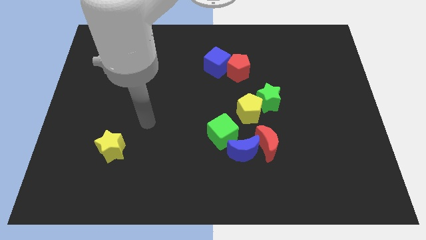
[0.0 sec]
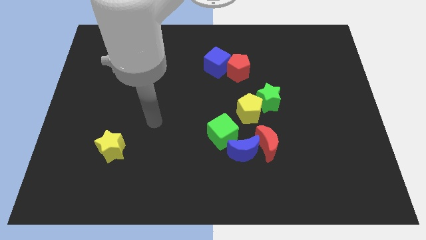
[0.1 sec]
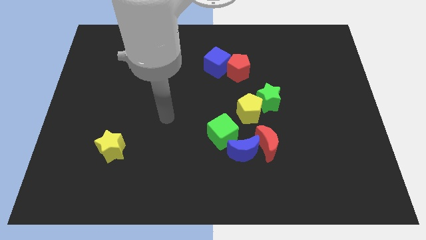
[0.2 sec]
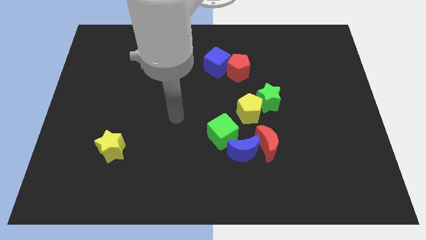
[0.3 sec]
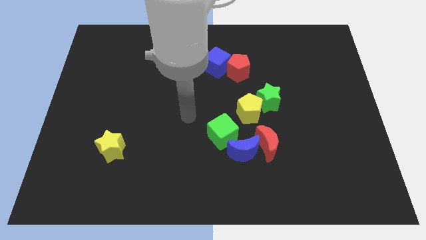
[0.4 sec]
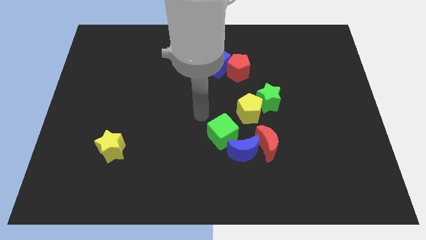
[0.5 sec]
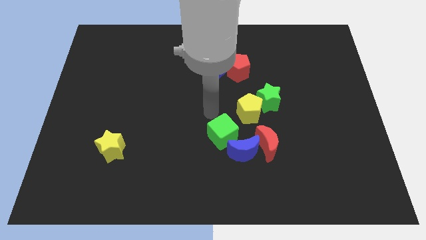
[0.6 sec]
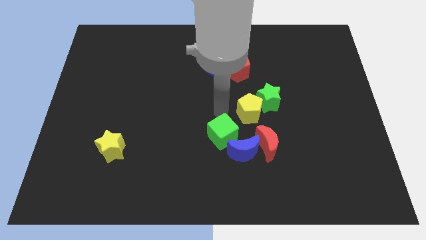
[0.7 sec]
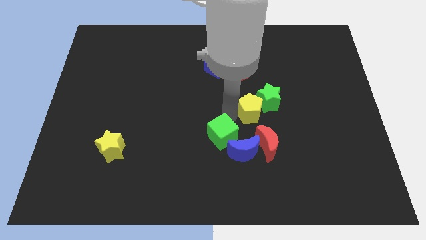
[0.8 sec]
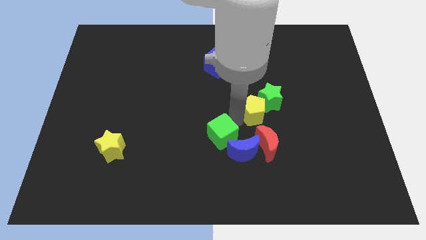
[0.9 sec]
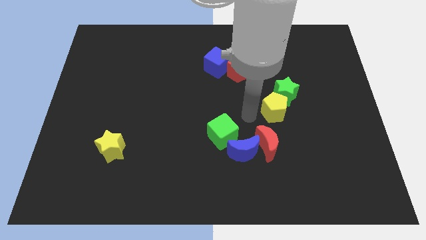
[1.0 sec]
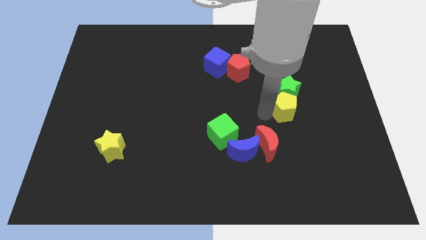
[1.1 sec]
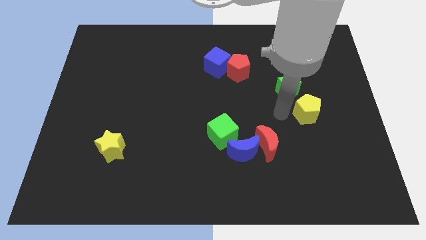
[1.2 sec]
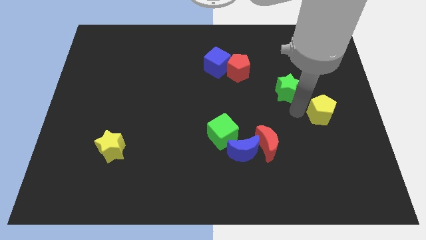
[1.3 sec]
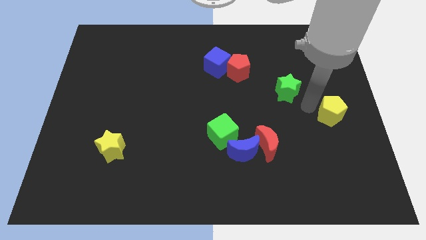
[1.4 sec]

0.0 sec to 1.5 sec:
pull the green star apart from the yellow pentagon

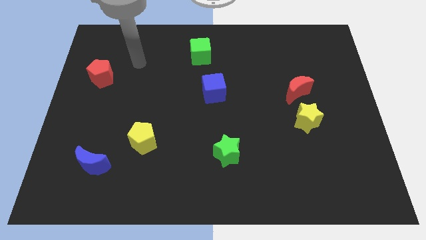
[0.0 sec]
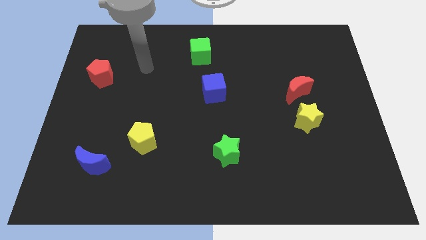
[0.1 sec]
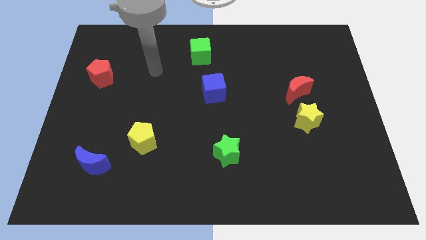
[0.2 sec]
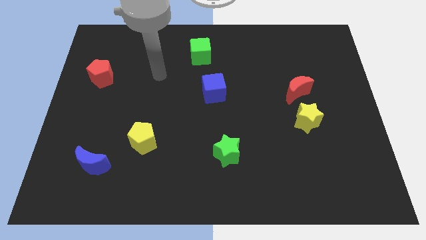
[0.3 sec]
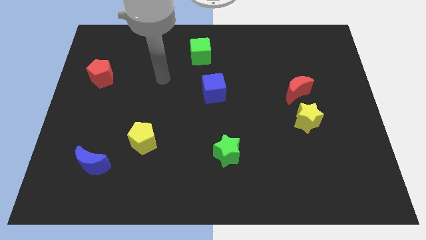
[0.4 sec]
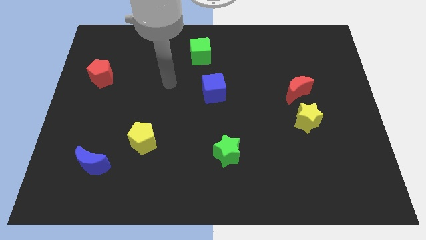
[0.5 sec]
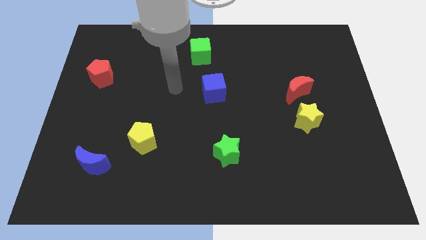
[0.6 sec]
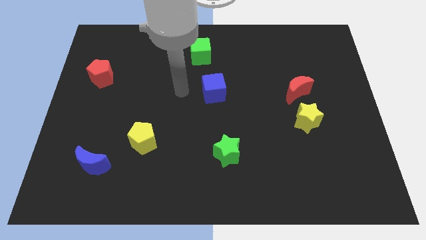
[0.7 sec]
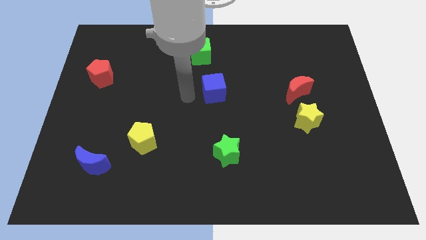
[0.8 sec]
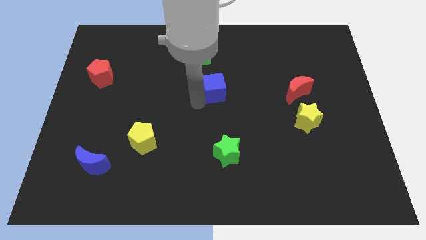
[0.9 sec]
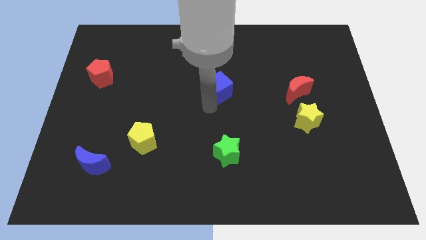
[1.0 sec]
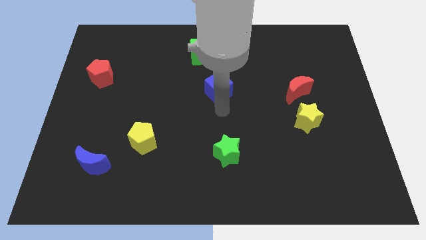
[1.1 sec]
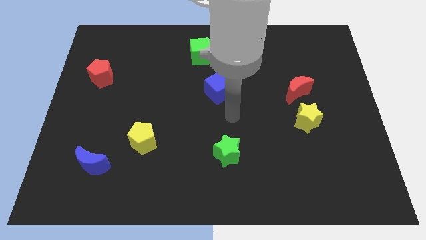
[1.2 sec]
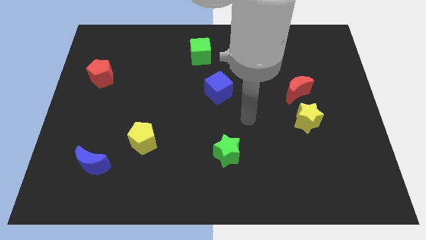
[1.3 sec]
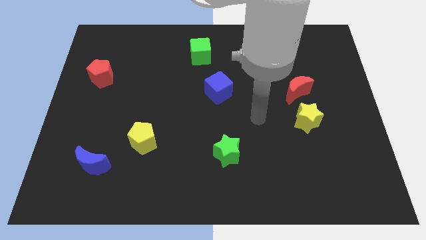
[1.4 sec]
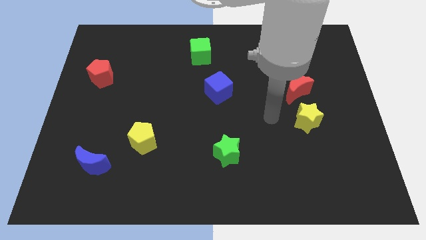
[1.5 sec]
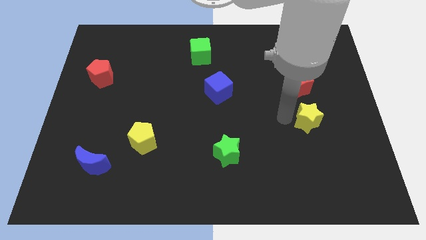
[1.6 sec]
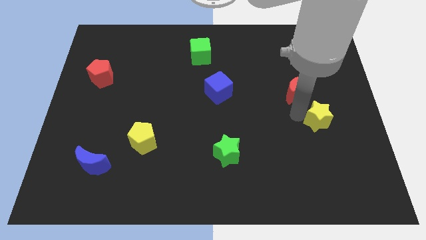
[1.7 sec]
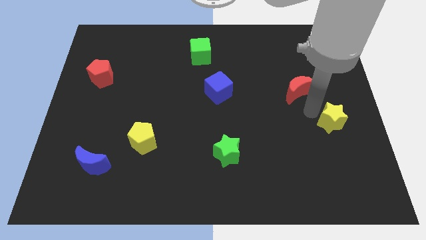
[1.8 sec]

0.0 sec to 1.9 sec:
pull the red moon apart from the yellow star

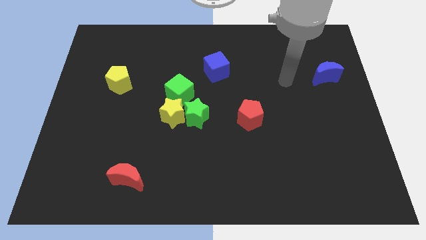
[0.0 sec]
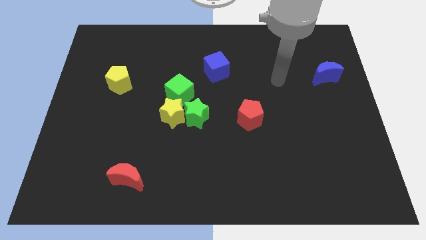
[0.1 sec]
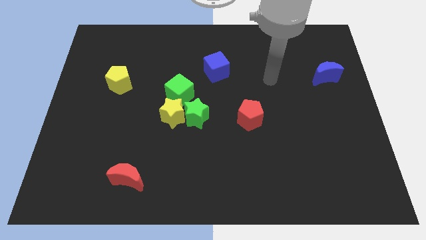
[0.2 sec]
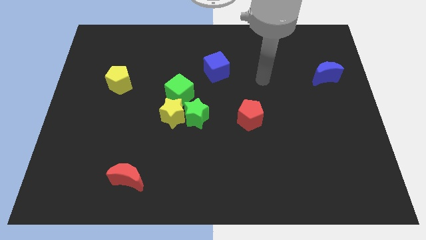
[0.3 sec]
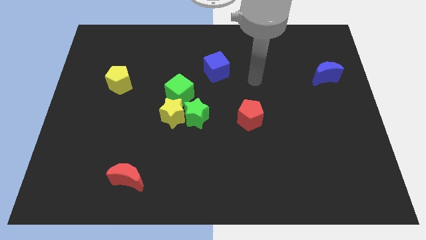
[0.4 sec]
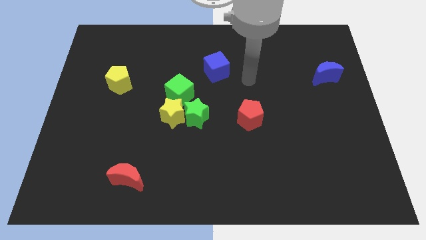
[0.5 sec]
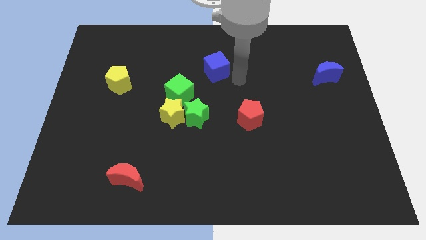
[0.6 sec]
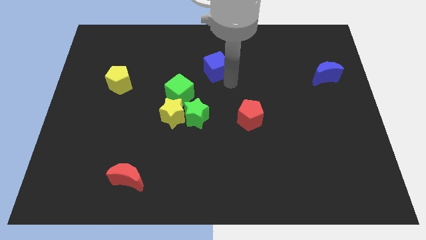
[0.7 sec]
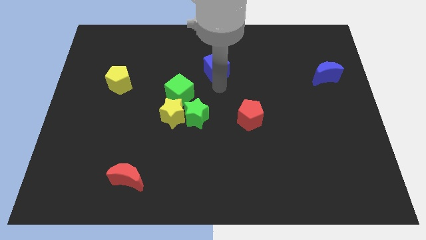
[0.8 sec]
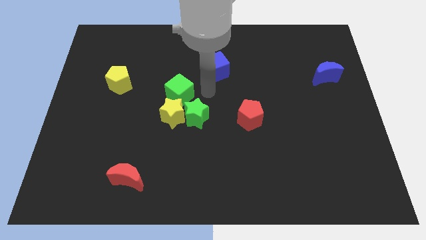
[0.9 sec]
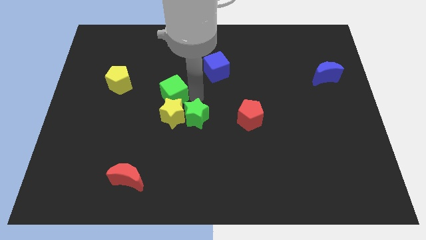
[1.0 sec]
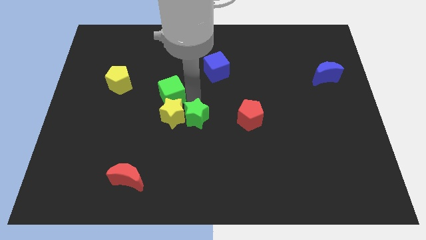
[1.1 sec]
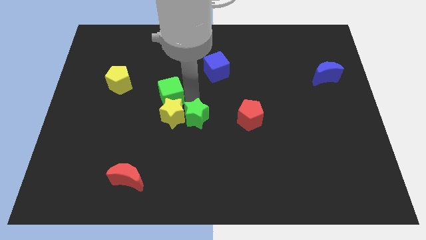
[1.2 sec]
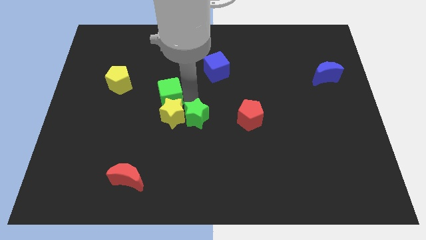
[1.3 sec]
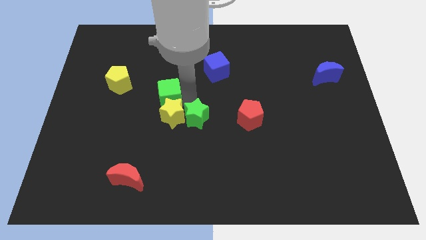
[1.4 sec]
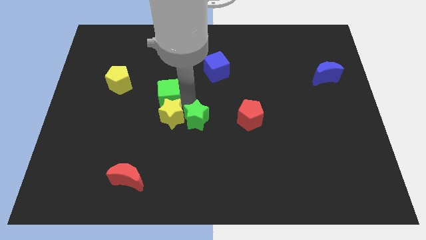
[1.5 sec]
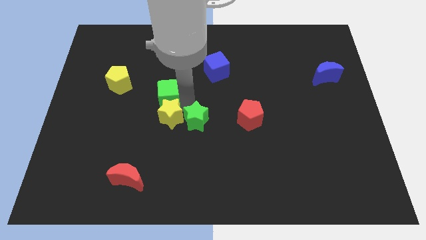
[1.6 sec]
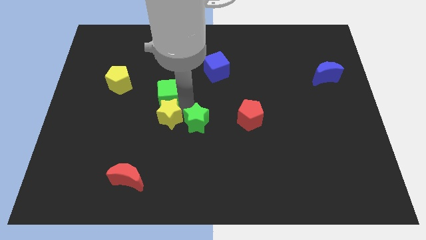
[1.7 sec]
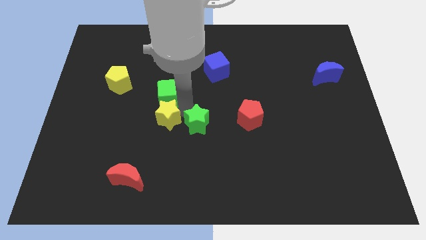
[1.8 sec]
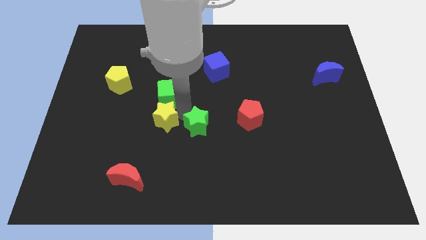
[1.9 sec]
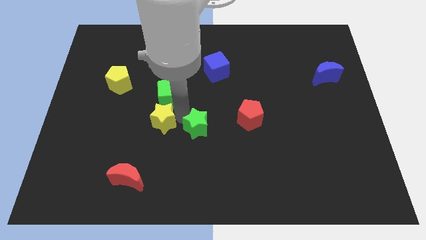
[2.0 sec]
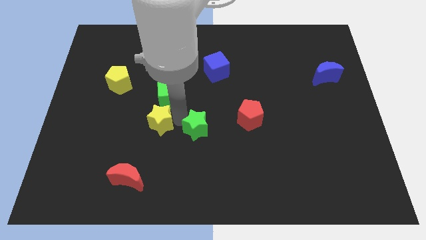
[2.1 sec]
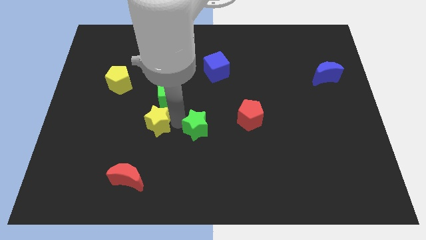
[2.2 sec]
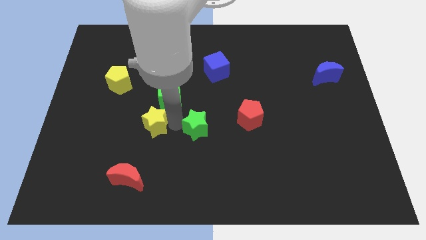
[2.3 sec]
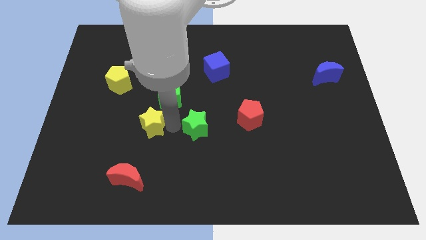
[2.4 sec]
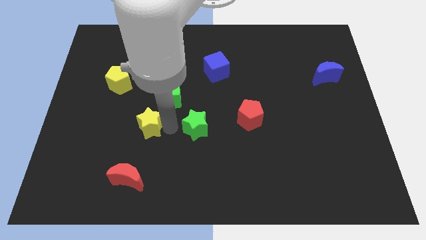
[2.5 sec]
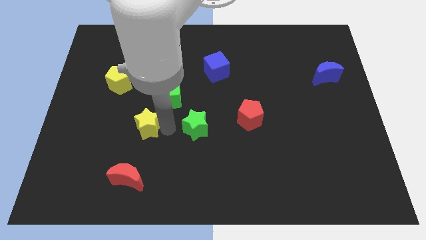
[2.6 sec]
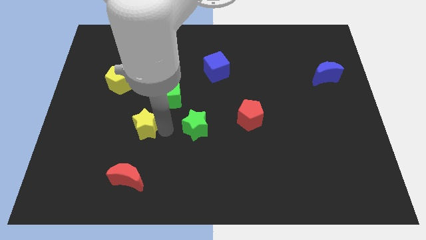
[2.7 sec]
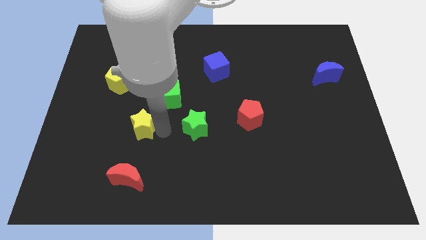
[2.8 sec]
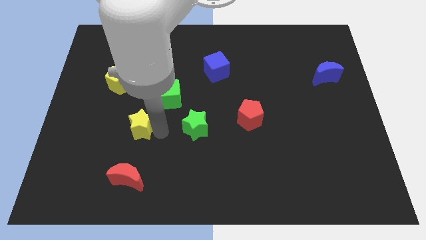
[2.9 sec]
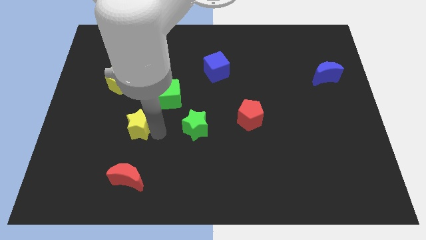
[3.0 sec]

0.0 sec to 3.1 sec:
separate the yellow star from the green star and green cube

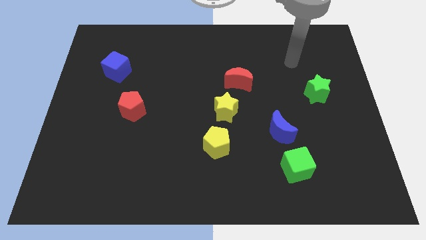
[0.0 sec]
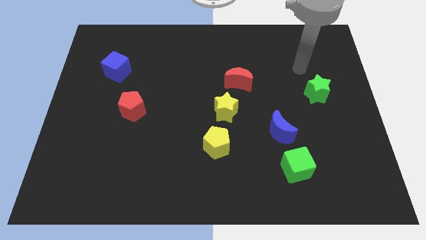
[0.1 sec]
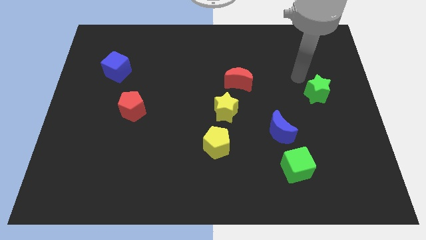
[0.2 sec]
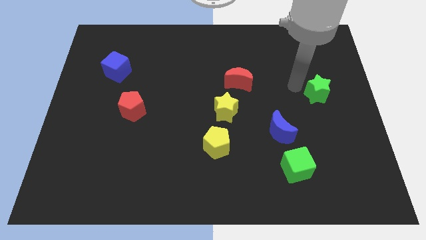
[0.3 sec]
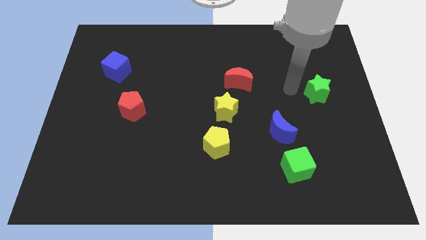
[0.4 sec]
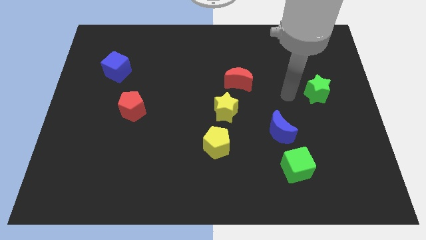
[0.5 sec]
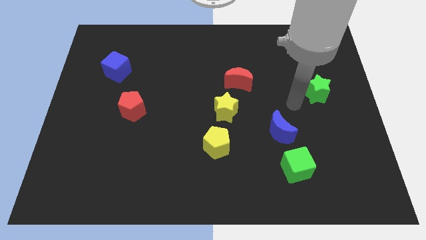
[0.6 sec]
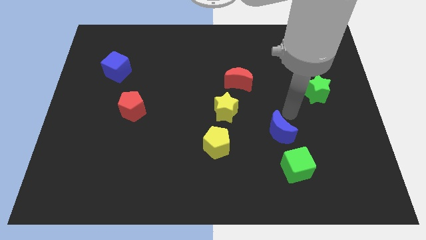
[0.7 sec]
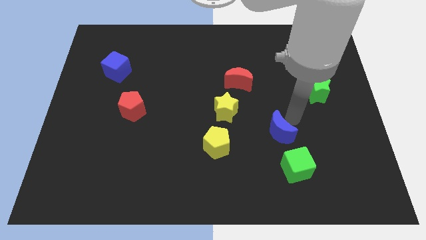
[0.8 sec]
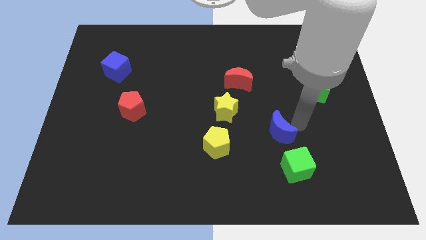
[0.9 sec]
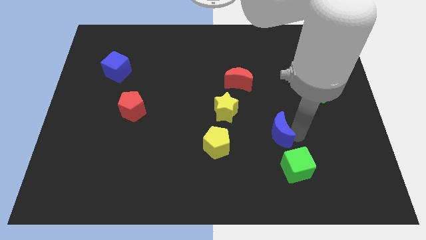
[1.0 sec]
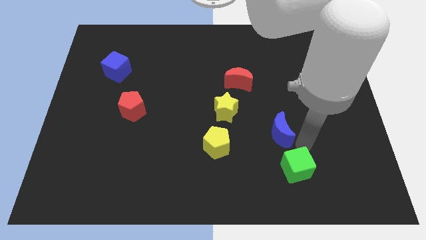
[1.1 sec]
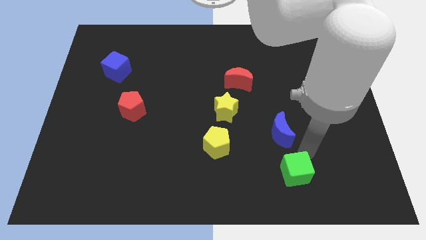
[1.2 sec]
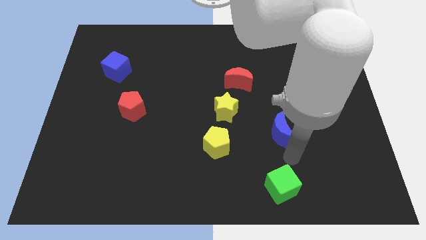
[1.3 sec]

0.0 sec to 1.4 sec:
separate the blue moon from the green cube

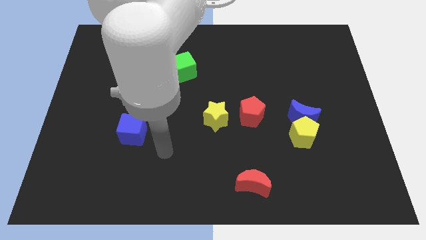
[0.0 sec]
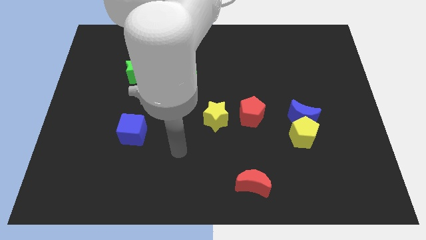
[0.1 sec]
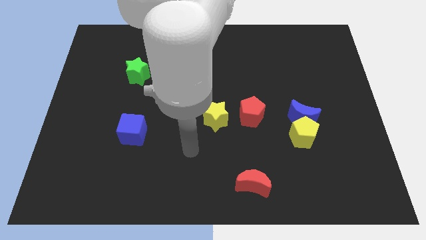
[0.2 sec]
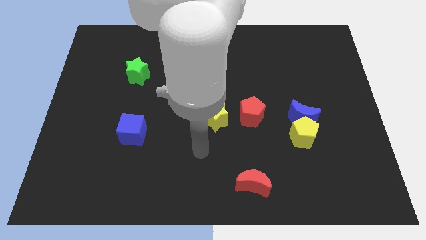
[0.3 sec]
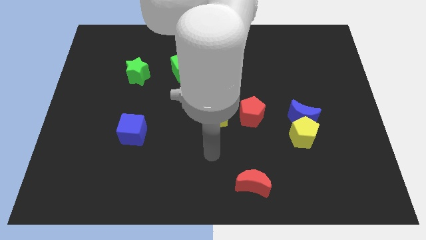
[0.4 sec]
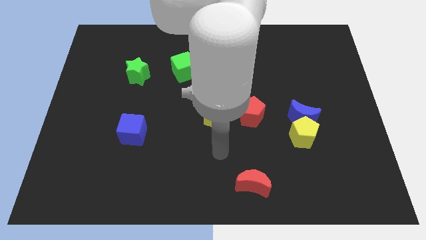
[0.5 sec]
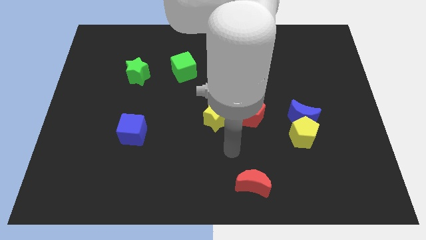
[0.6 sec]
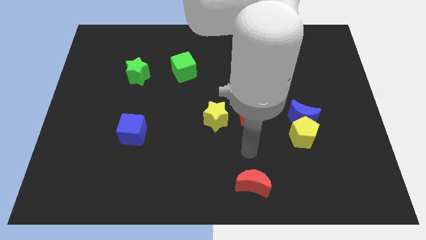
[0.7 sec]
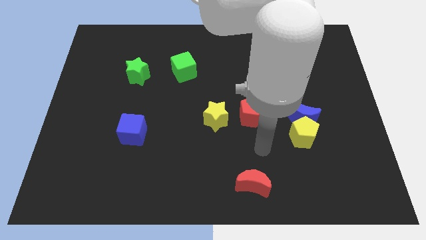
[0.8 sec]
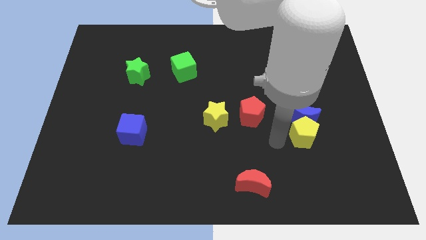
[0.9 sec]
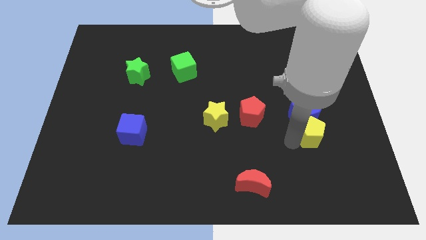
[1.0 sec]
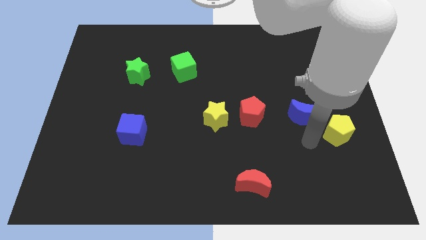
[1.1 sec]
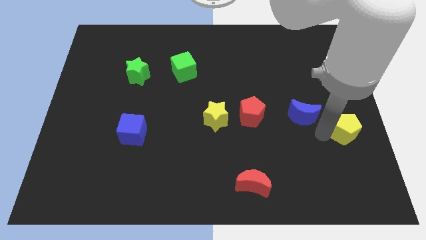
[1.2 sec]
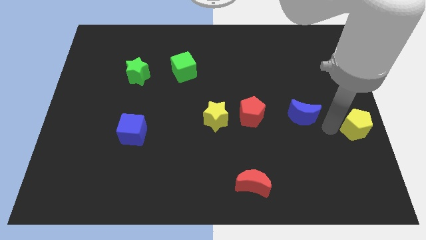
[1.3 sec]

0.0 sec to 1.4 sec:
pull the blue moon apart from the yellow pentagon
